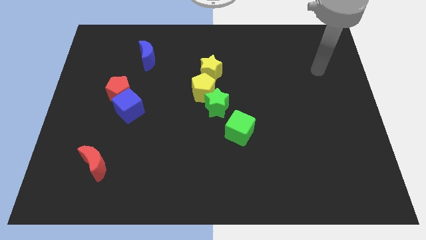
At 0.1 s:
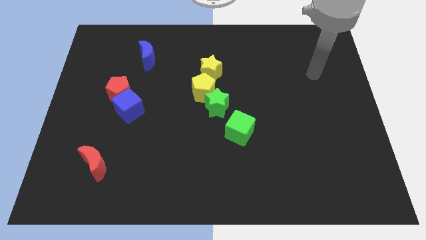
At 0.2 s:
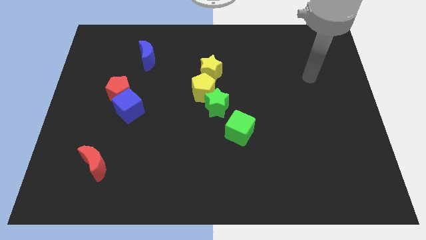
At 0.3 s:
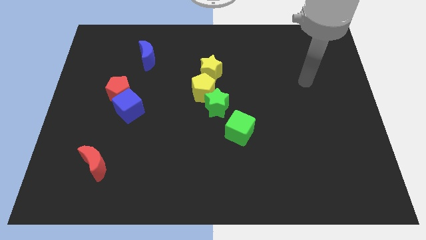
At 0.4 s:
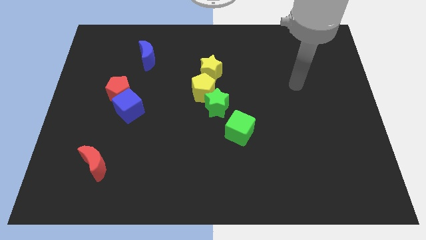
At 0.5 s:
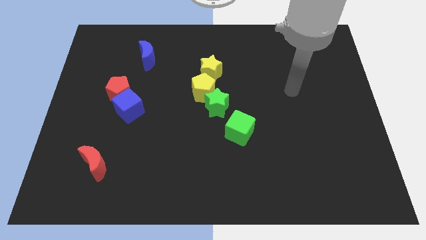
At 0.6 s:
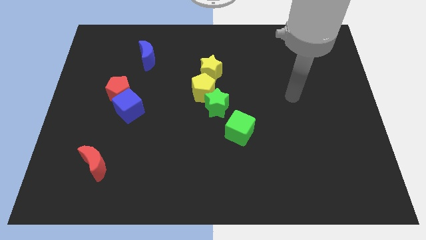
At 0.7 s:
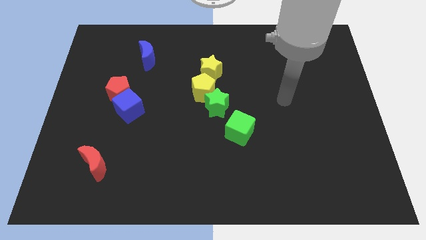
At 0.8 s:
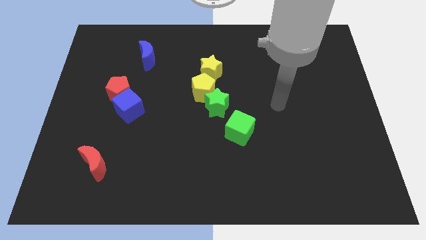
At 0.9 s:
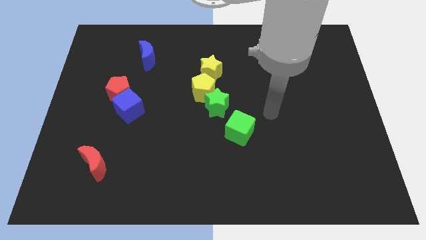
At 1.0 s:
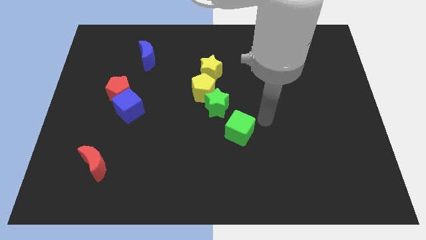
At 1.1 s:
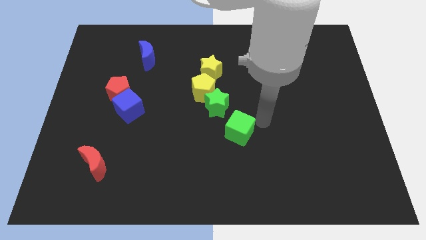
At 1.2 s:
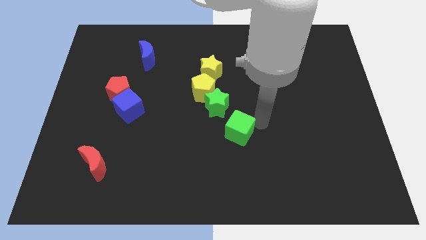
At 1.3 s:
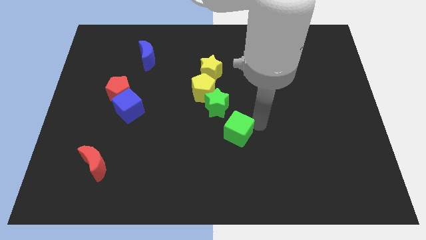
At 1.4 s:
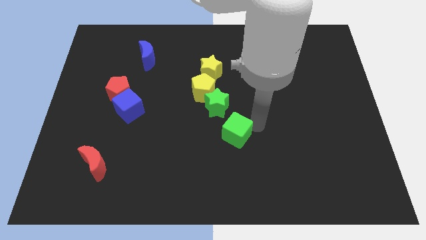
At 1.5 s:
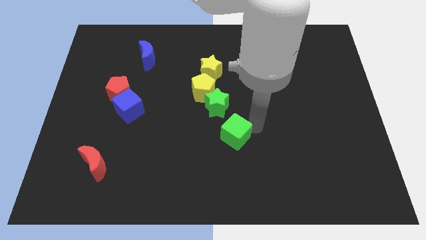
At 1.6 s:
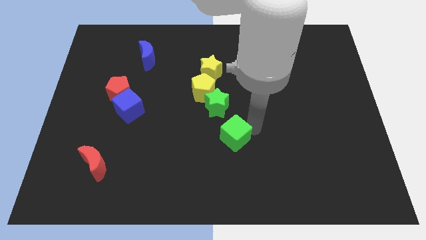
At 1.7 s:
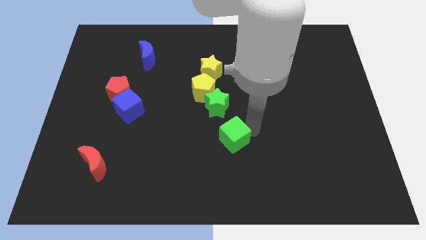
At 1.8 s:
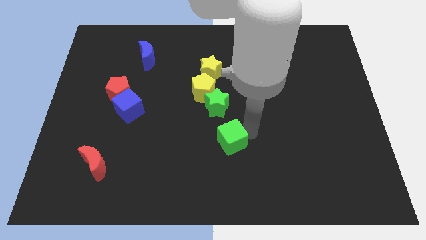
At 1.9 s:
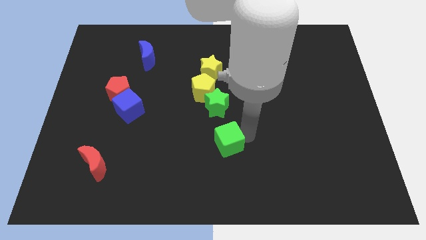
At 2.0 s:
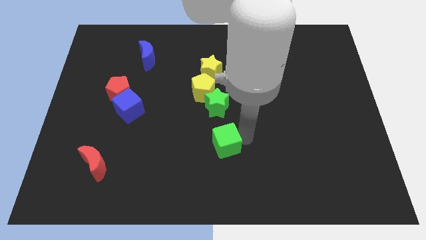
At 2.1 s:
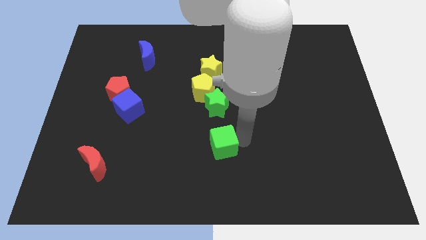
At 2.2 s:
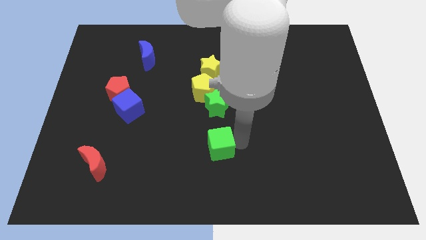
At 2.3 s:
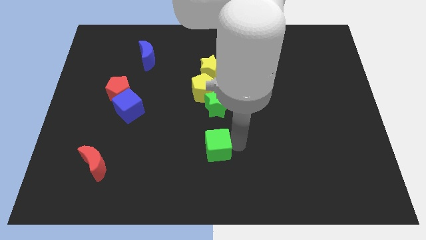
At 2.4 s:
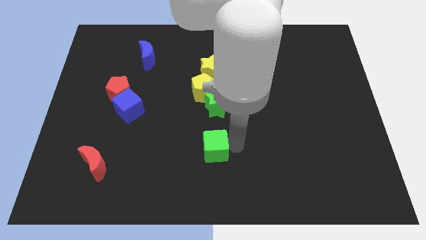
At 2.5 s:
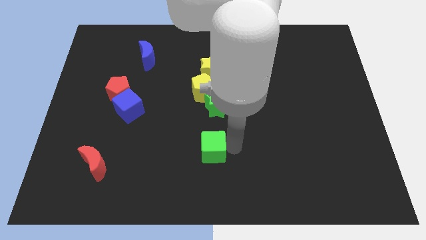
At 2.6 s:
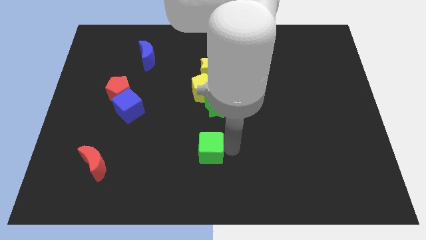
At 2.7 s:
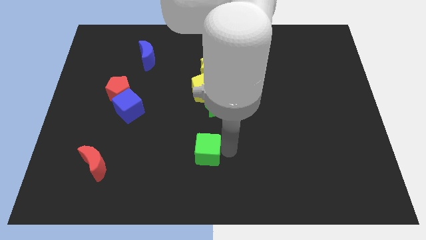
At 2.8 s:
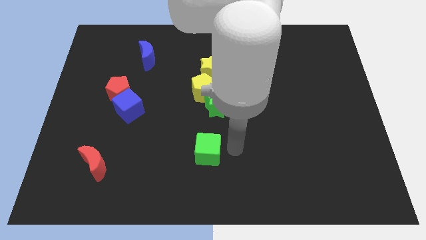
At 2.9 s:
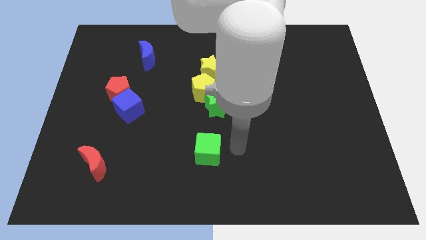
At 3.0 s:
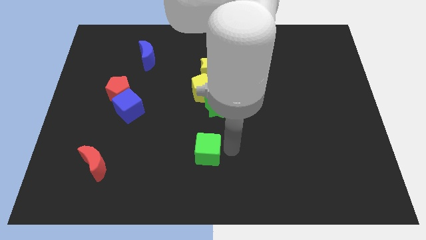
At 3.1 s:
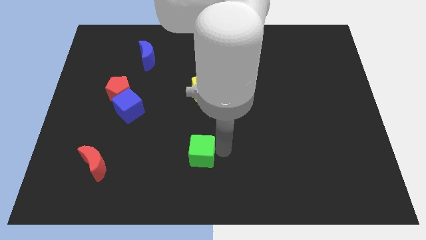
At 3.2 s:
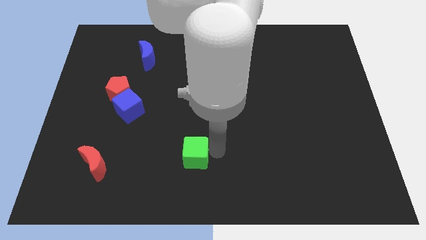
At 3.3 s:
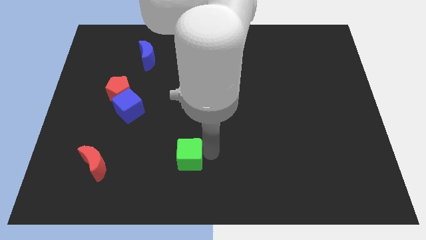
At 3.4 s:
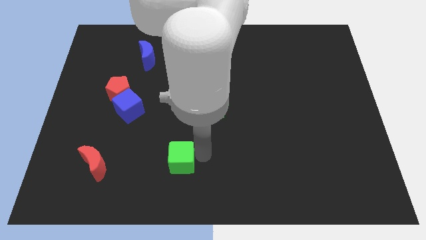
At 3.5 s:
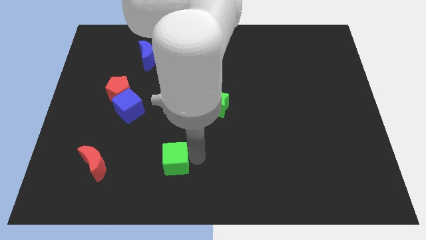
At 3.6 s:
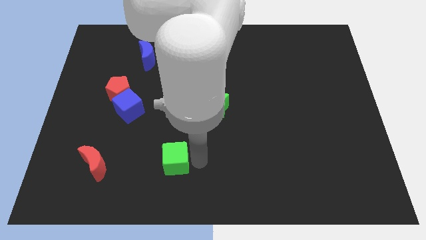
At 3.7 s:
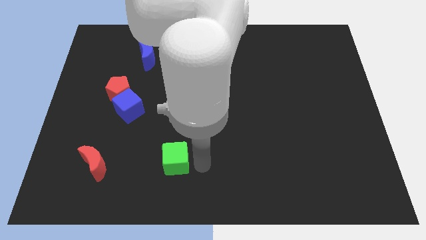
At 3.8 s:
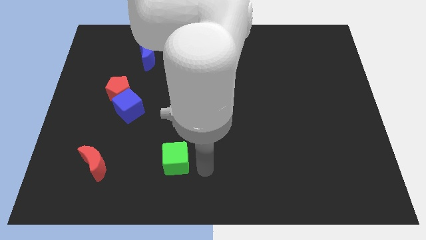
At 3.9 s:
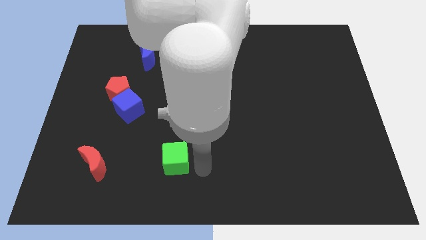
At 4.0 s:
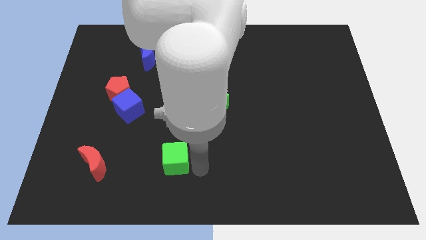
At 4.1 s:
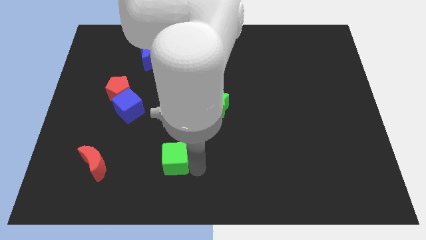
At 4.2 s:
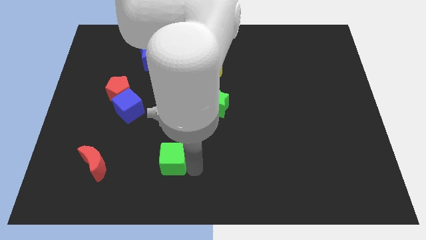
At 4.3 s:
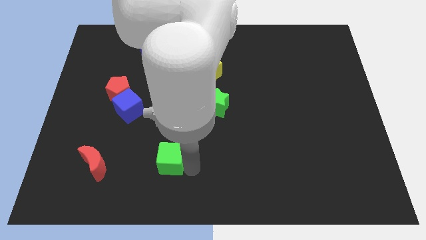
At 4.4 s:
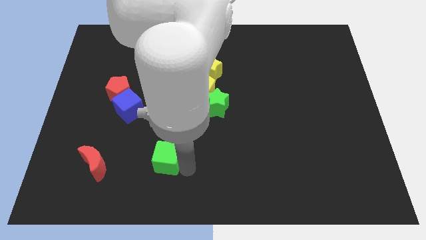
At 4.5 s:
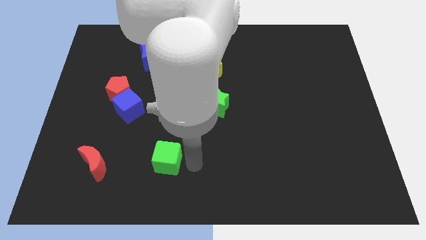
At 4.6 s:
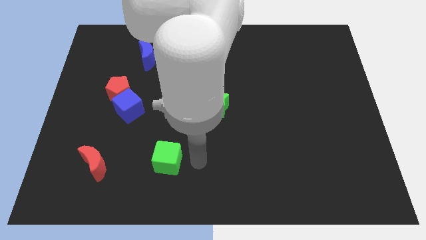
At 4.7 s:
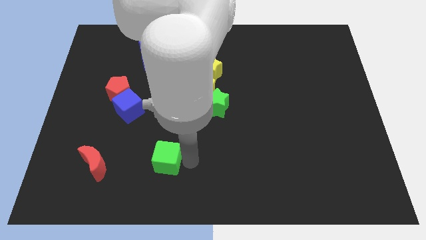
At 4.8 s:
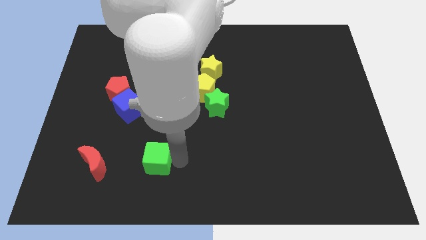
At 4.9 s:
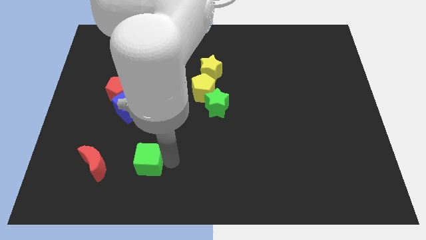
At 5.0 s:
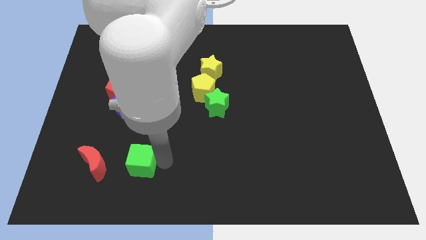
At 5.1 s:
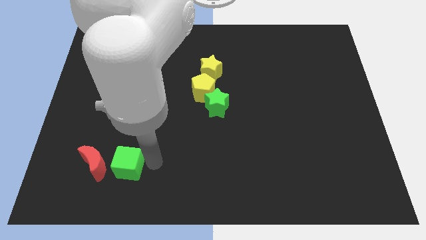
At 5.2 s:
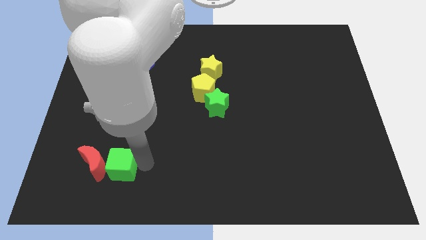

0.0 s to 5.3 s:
slide the green cube next to the red moon

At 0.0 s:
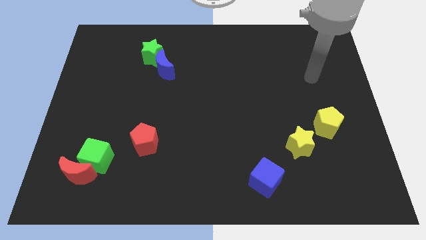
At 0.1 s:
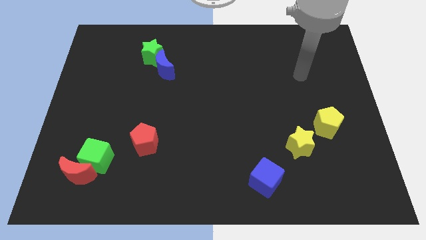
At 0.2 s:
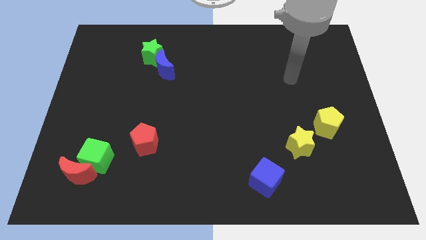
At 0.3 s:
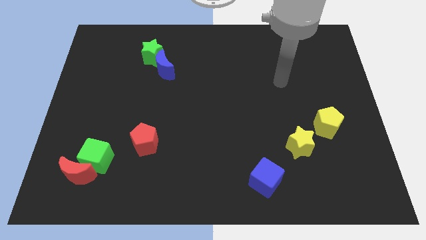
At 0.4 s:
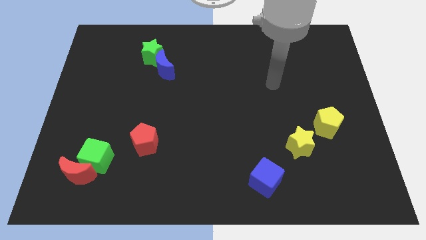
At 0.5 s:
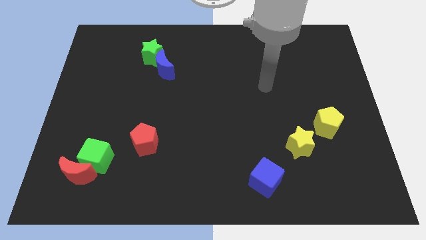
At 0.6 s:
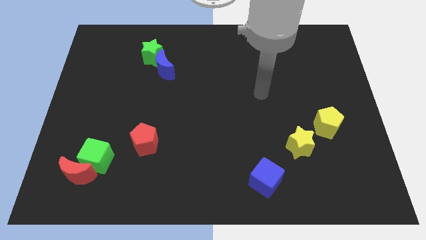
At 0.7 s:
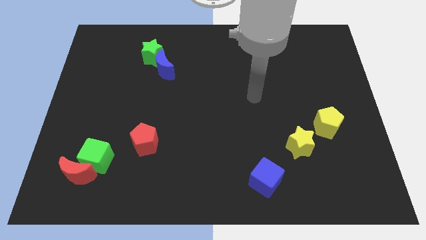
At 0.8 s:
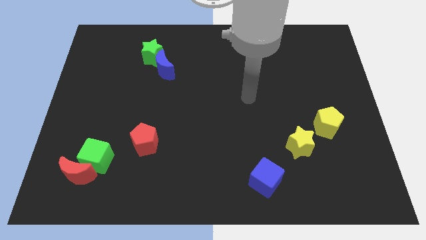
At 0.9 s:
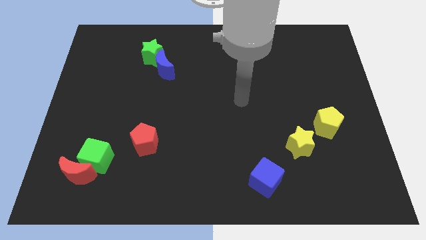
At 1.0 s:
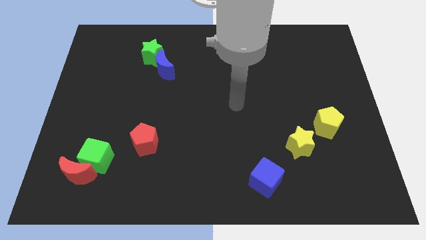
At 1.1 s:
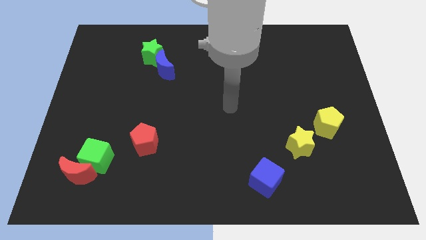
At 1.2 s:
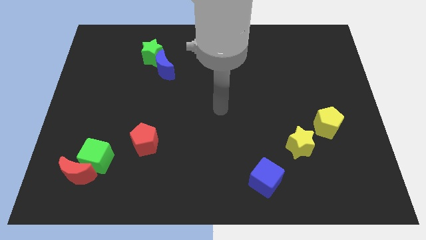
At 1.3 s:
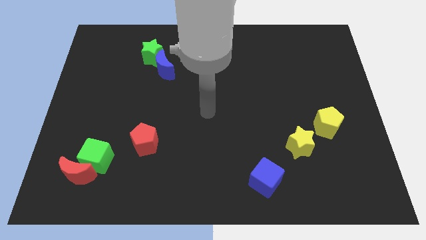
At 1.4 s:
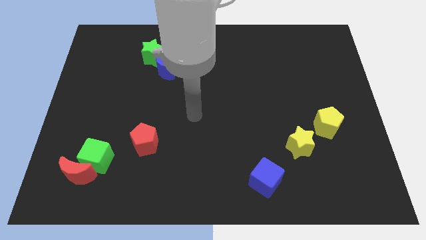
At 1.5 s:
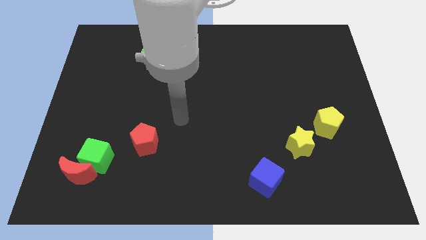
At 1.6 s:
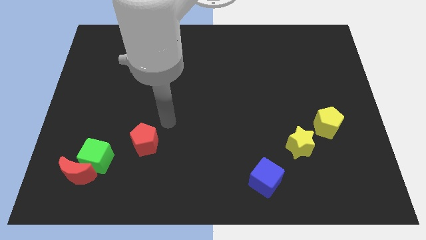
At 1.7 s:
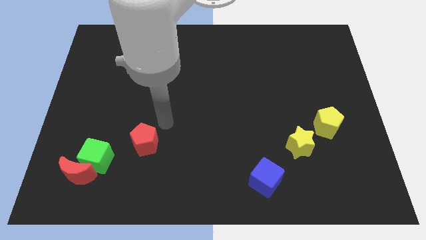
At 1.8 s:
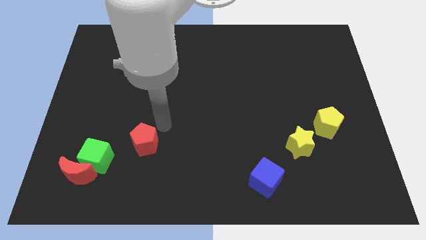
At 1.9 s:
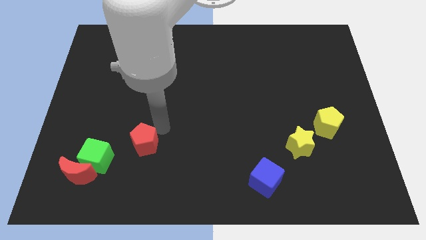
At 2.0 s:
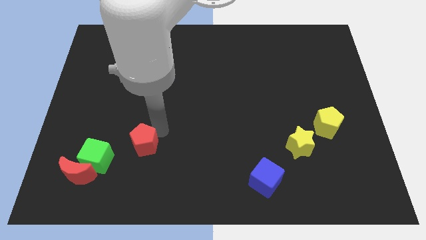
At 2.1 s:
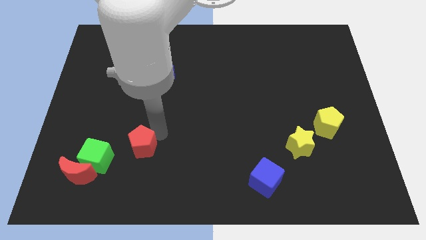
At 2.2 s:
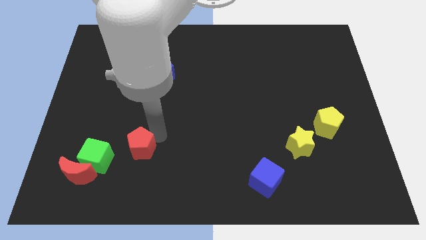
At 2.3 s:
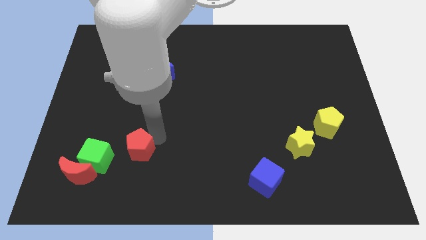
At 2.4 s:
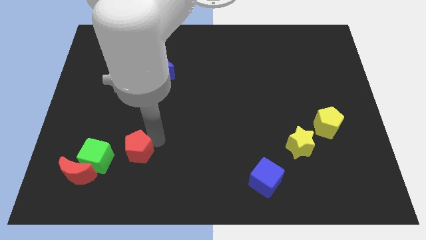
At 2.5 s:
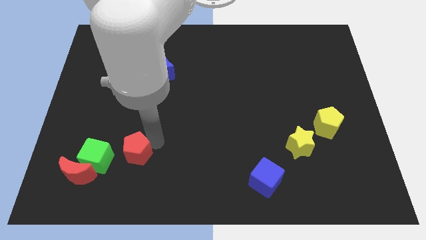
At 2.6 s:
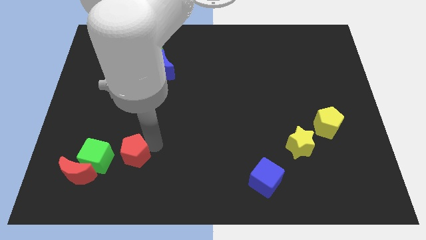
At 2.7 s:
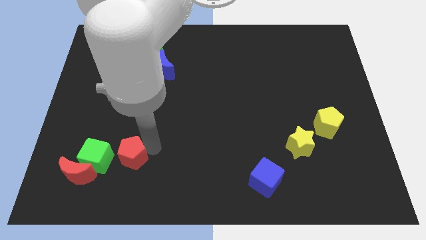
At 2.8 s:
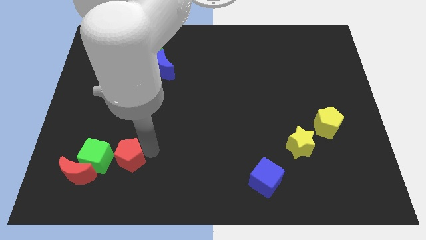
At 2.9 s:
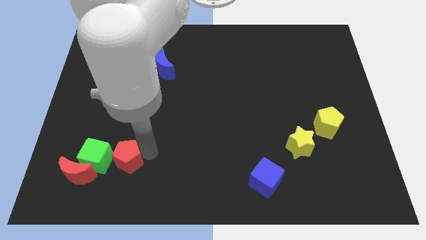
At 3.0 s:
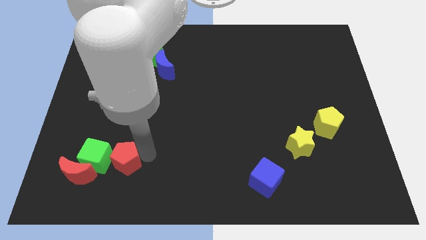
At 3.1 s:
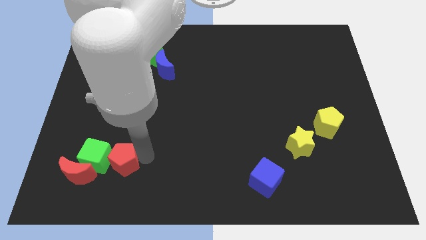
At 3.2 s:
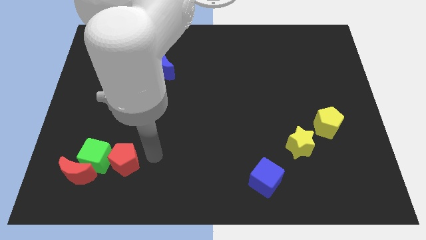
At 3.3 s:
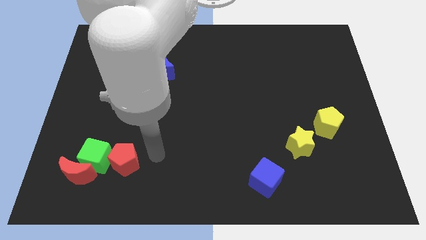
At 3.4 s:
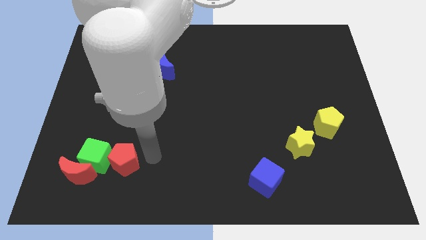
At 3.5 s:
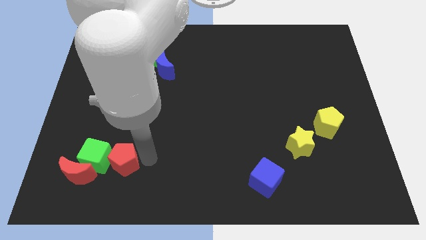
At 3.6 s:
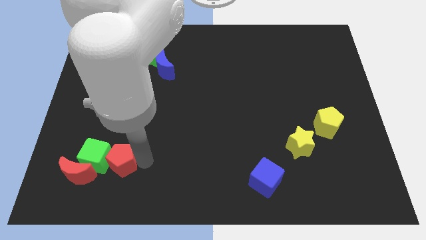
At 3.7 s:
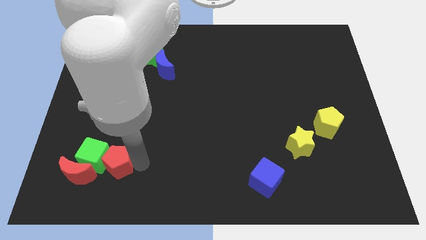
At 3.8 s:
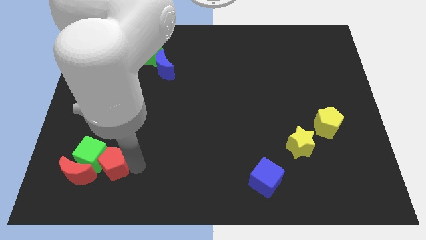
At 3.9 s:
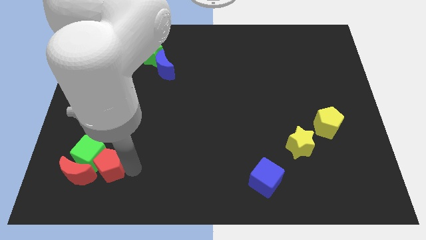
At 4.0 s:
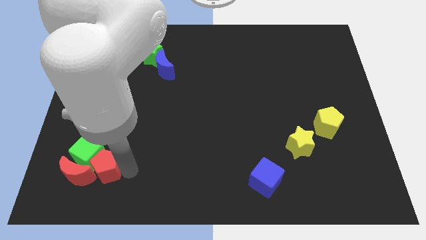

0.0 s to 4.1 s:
move the red pentagon towards the red moon
